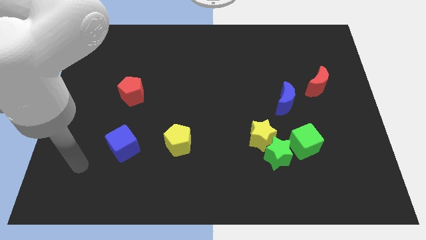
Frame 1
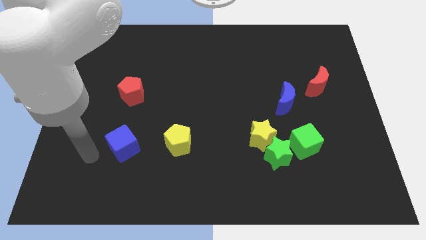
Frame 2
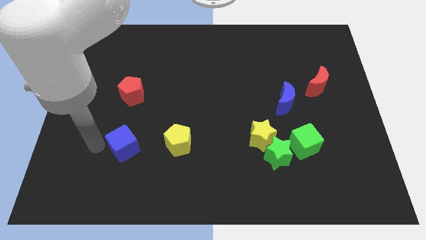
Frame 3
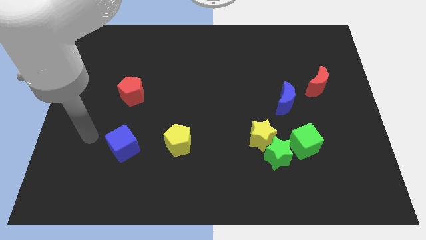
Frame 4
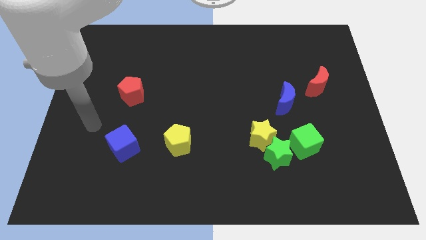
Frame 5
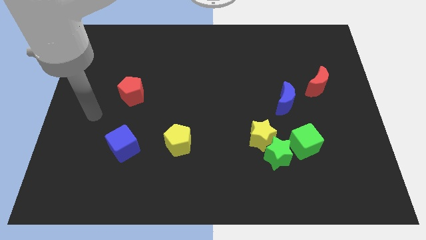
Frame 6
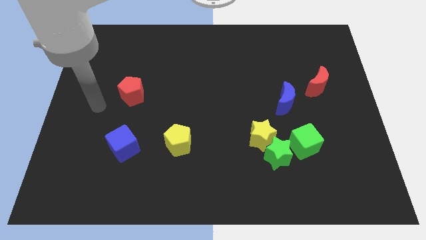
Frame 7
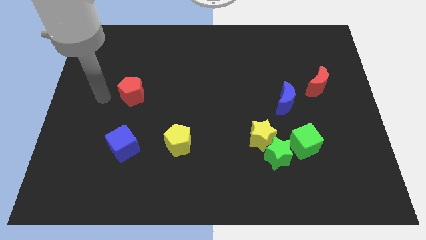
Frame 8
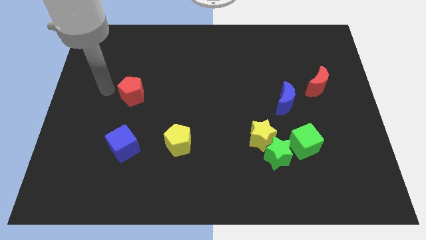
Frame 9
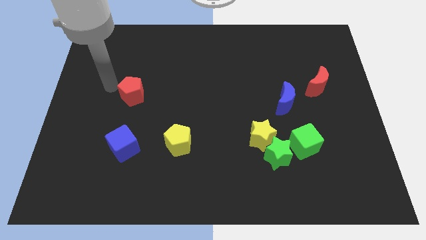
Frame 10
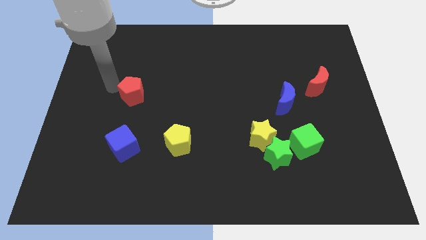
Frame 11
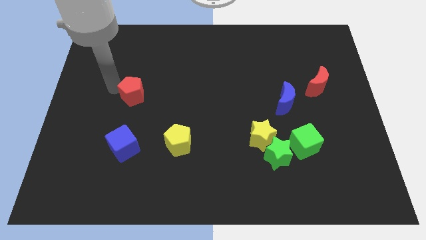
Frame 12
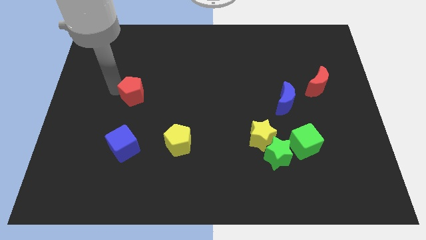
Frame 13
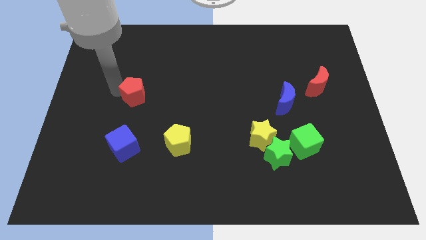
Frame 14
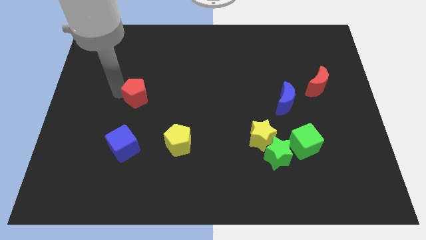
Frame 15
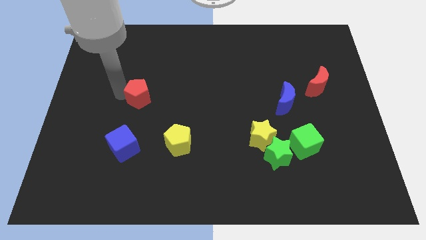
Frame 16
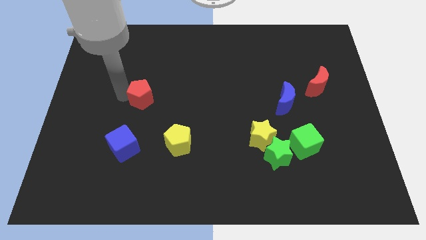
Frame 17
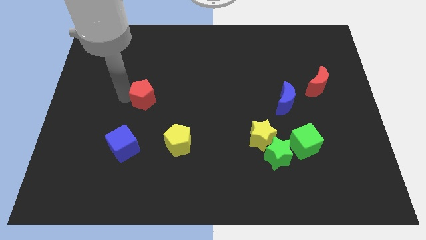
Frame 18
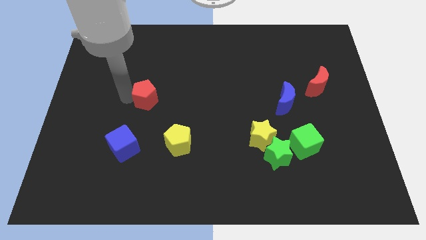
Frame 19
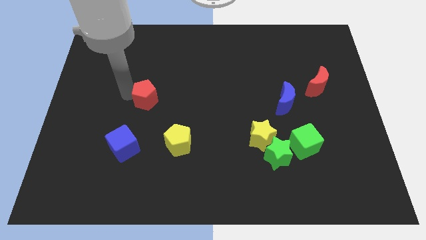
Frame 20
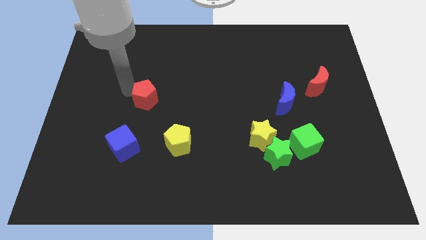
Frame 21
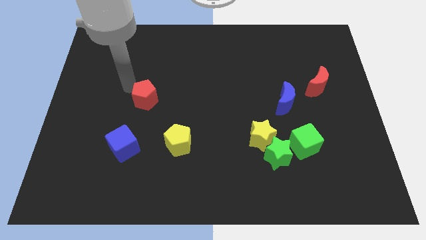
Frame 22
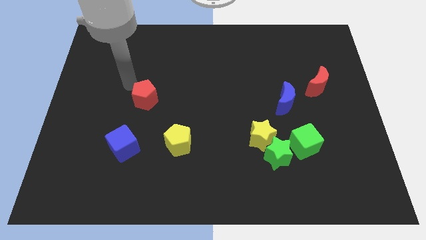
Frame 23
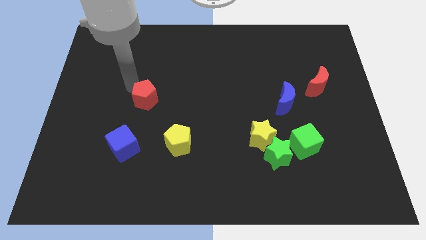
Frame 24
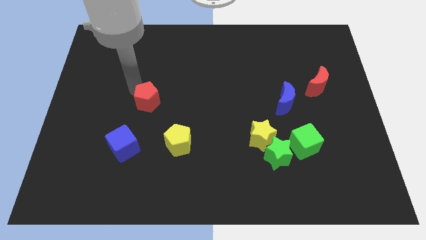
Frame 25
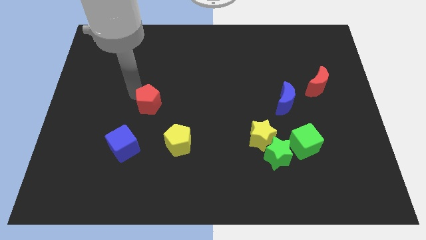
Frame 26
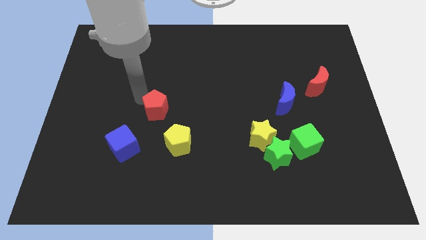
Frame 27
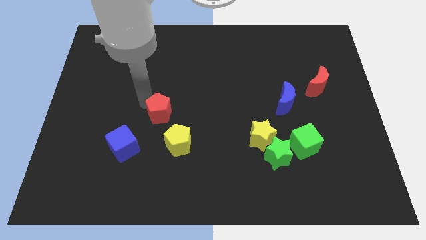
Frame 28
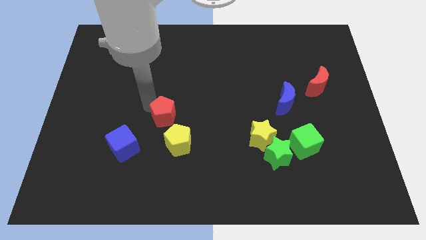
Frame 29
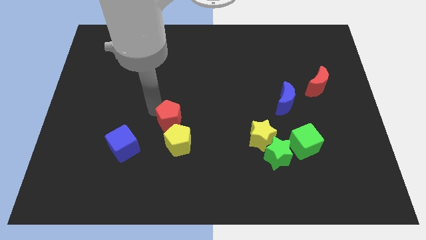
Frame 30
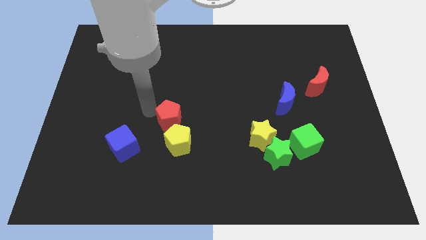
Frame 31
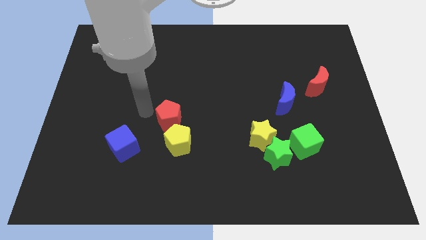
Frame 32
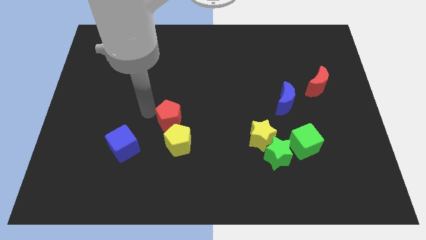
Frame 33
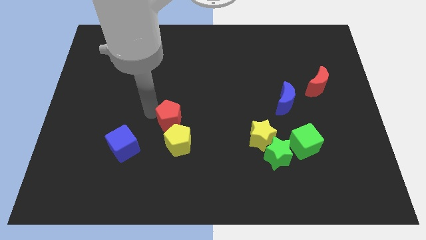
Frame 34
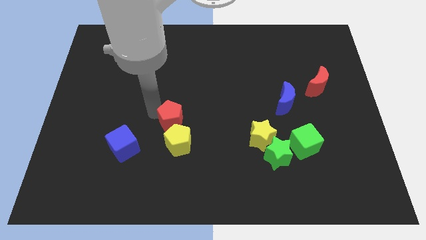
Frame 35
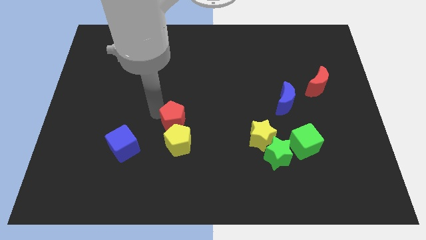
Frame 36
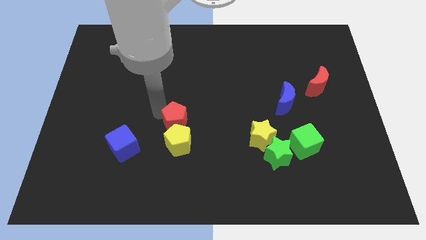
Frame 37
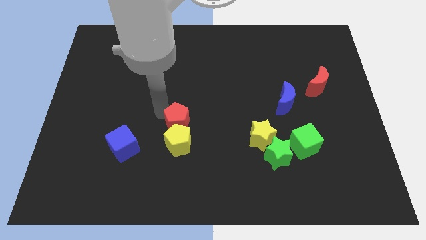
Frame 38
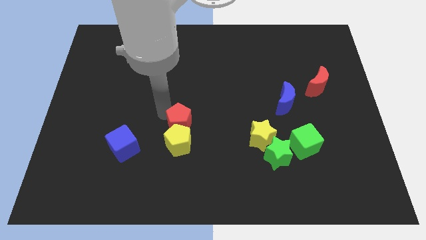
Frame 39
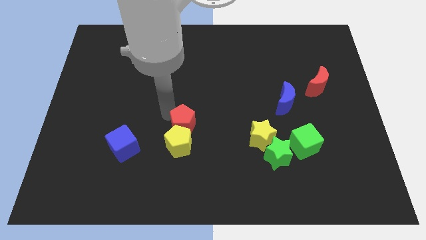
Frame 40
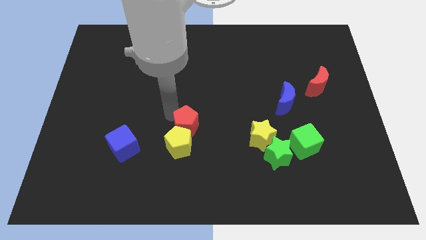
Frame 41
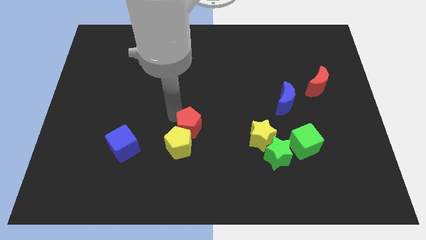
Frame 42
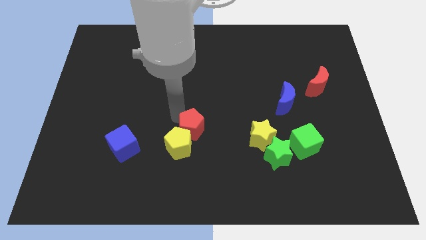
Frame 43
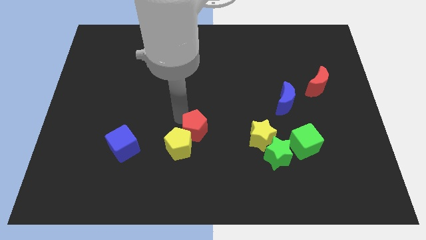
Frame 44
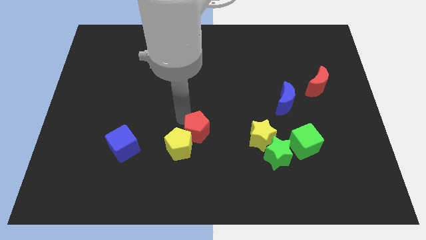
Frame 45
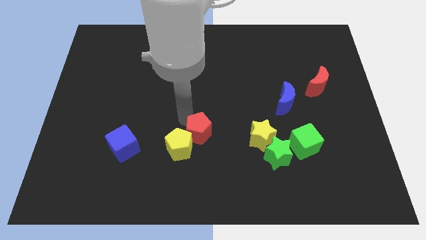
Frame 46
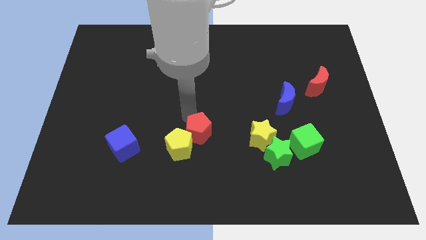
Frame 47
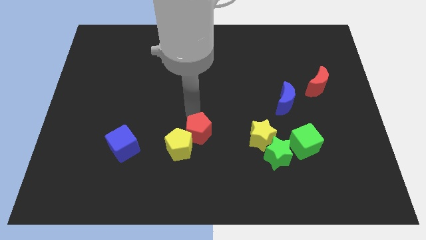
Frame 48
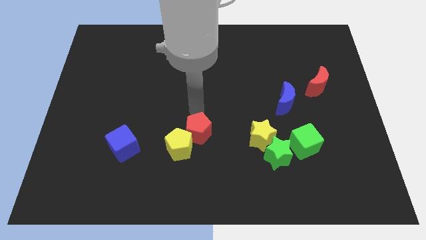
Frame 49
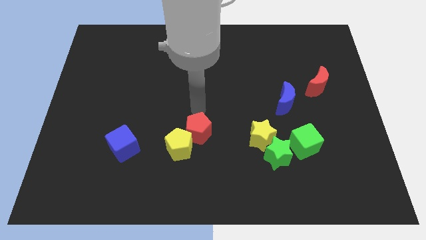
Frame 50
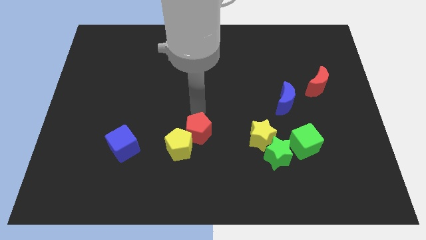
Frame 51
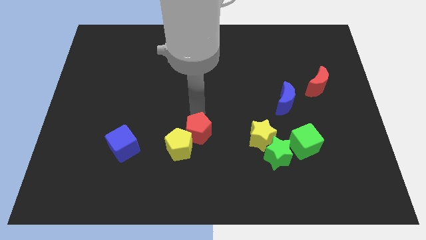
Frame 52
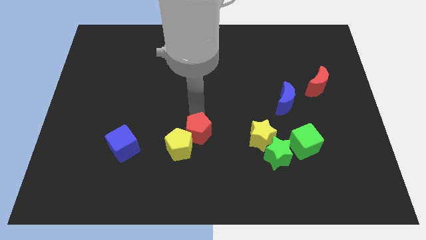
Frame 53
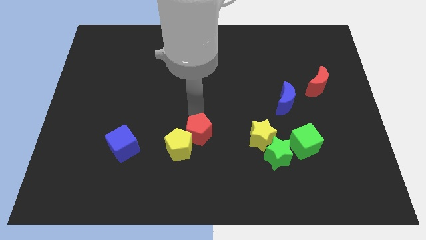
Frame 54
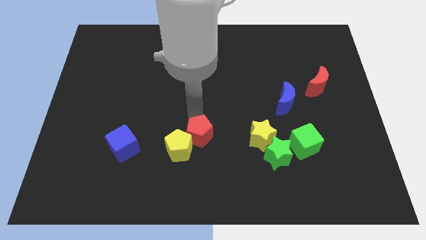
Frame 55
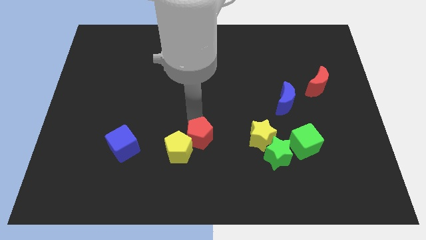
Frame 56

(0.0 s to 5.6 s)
move the red pentagon down and right

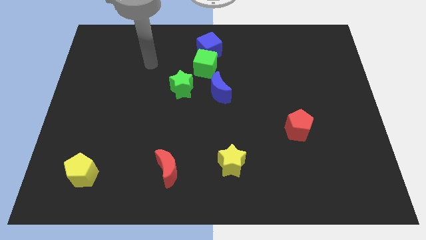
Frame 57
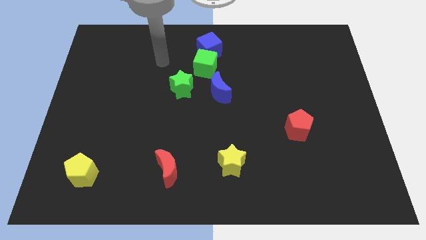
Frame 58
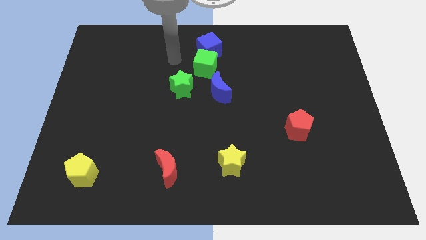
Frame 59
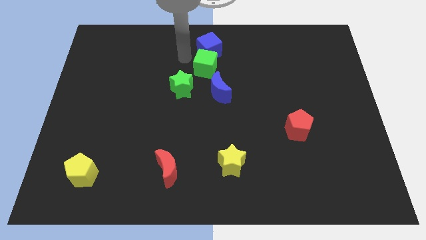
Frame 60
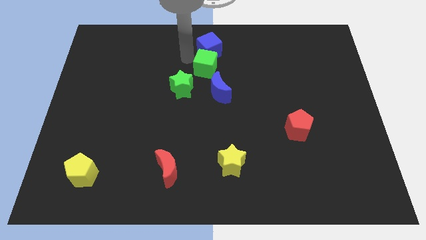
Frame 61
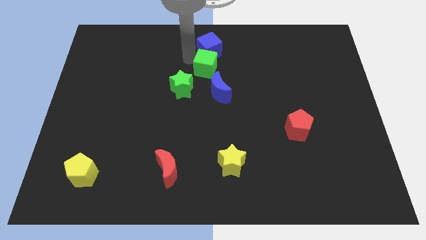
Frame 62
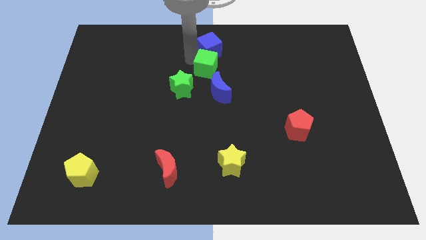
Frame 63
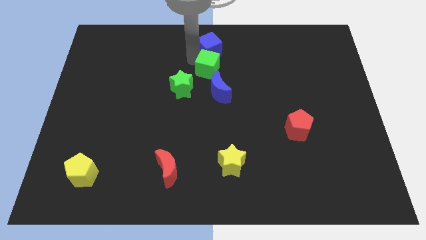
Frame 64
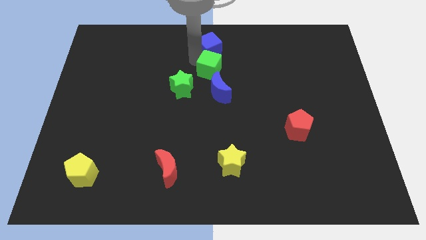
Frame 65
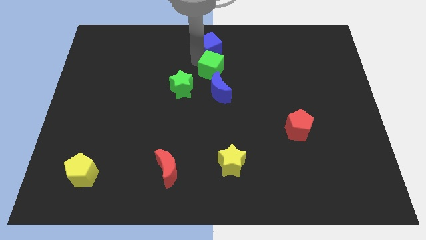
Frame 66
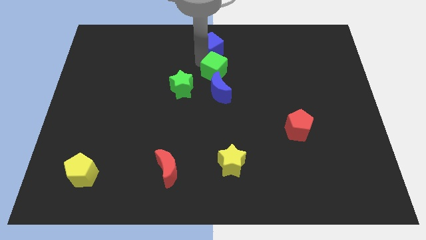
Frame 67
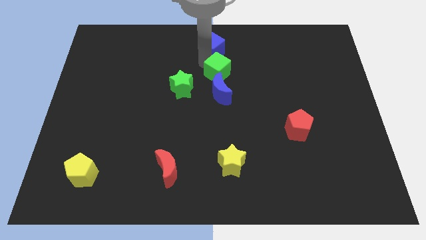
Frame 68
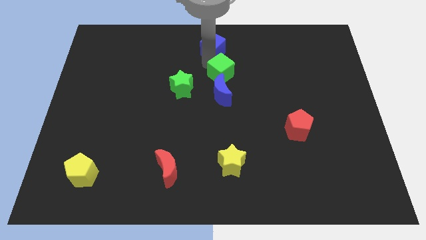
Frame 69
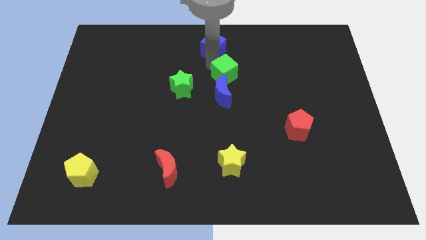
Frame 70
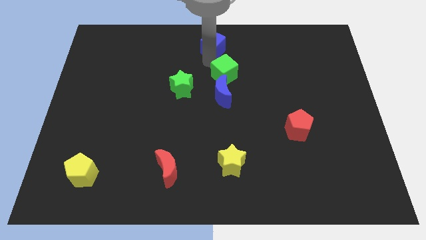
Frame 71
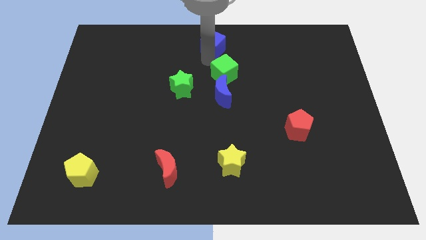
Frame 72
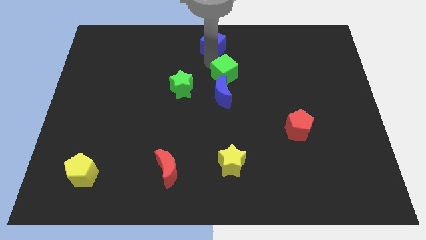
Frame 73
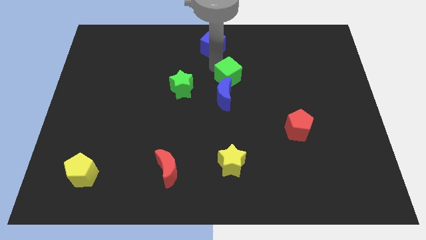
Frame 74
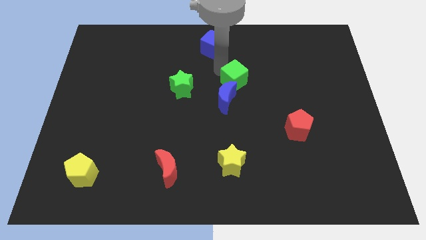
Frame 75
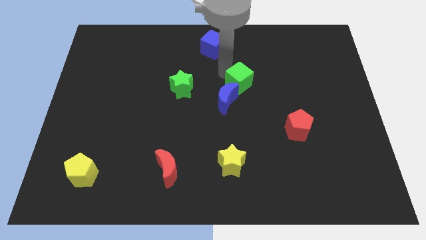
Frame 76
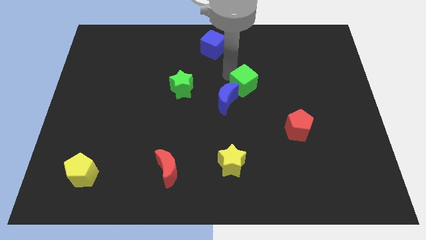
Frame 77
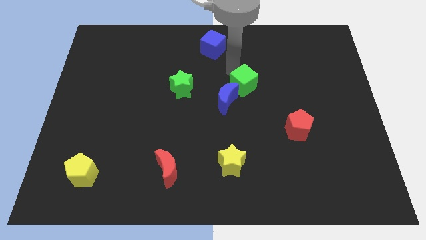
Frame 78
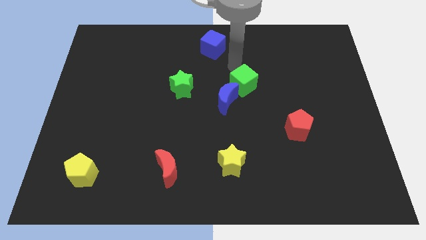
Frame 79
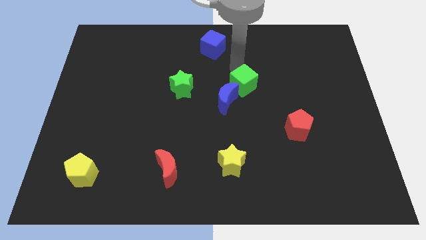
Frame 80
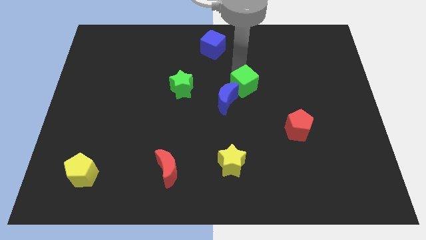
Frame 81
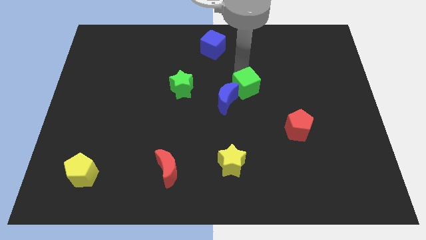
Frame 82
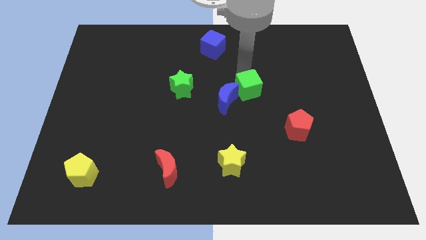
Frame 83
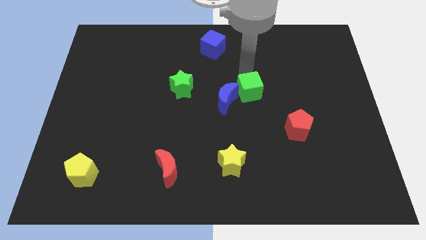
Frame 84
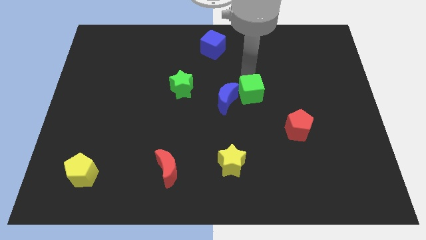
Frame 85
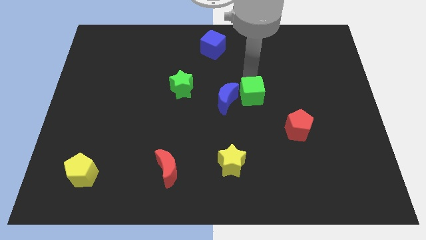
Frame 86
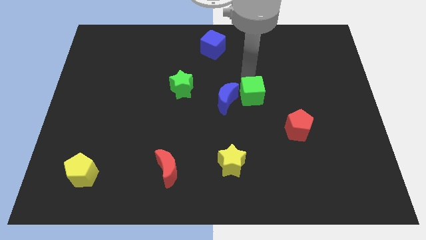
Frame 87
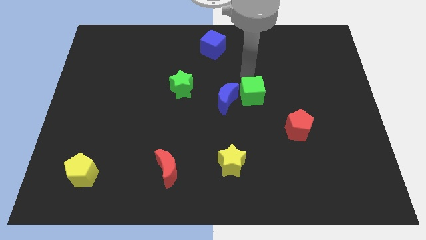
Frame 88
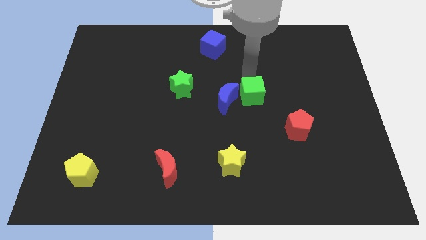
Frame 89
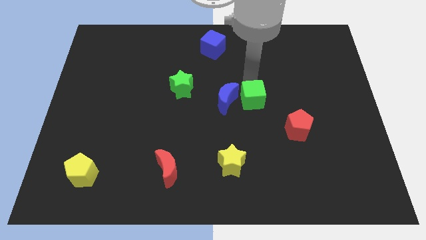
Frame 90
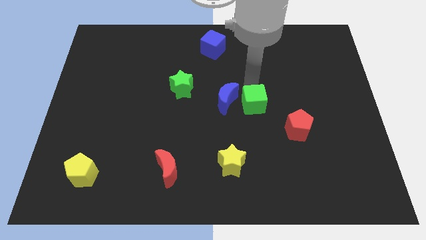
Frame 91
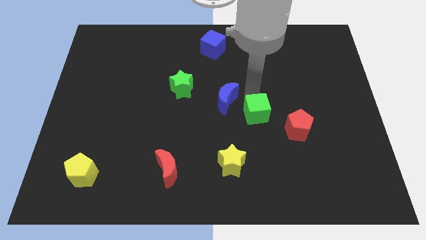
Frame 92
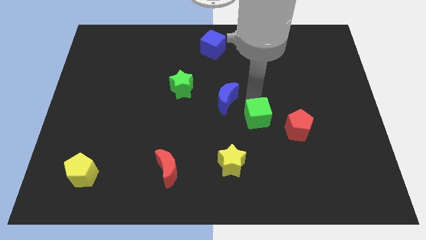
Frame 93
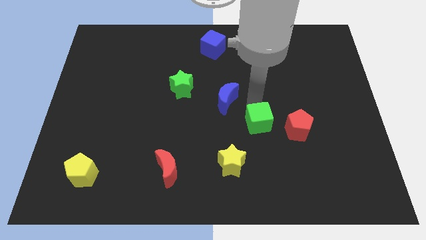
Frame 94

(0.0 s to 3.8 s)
move the green cube down and to the right
